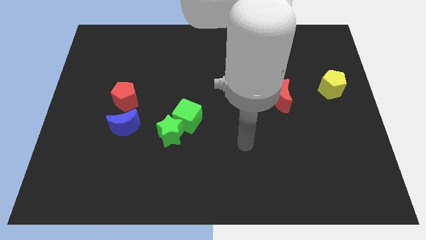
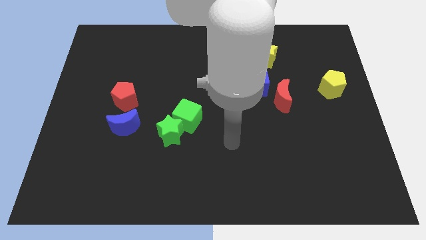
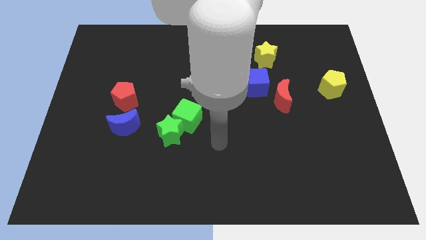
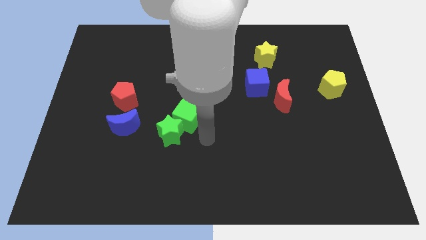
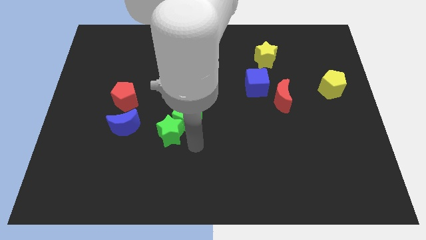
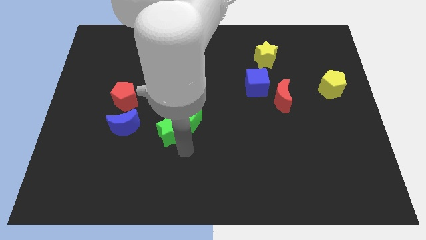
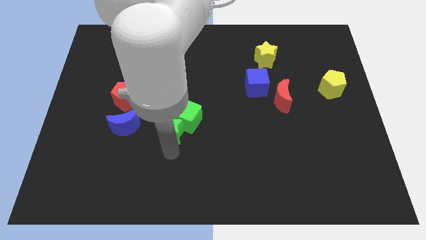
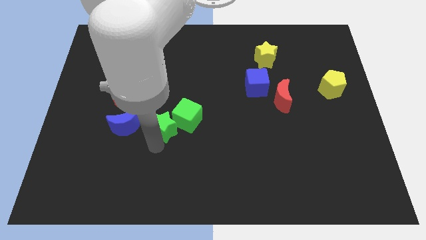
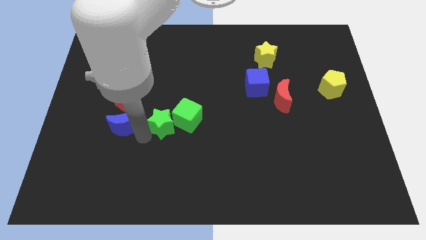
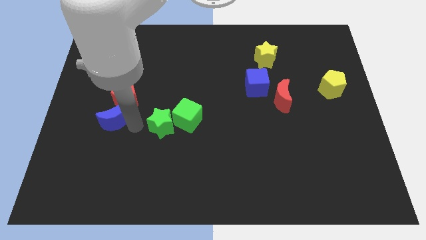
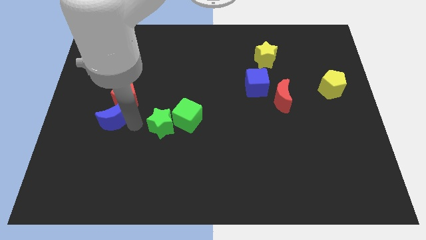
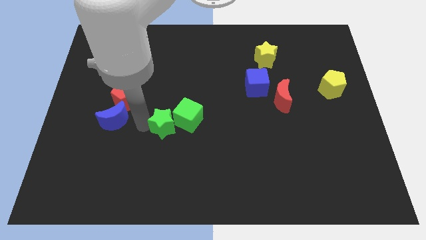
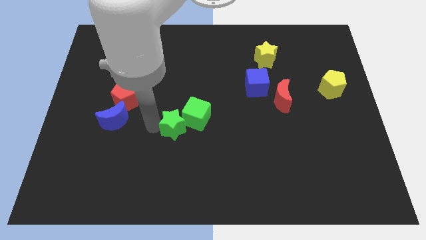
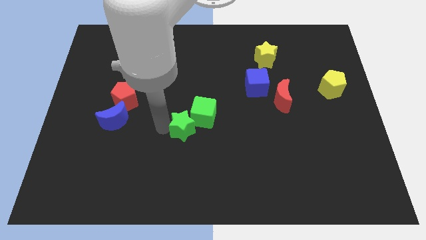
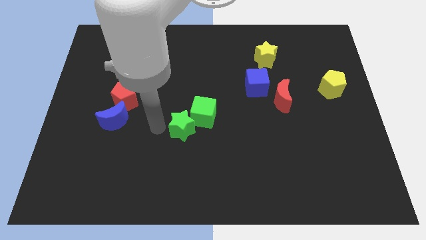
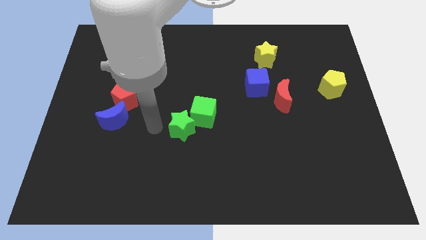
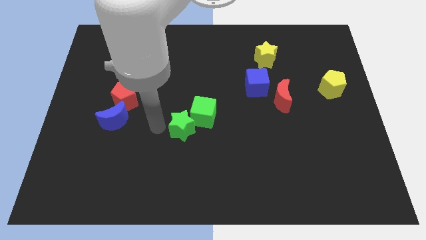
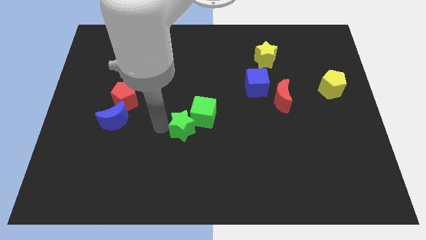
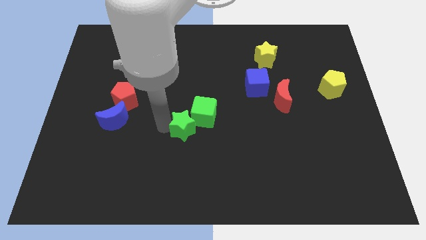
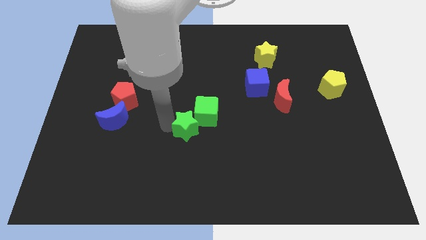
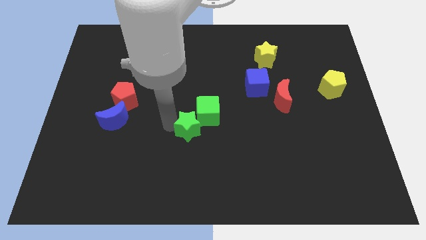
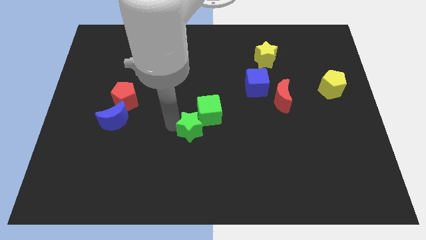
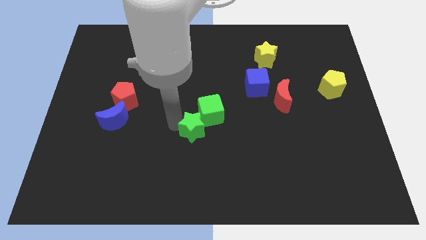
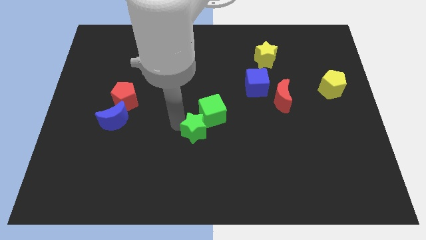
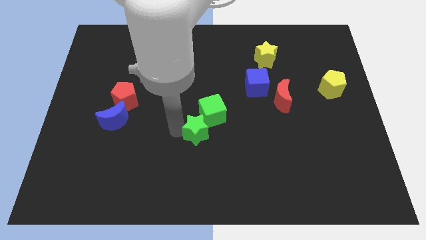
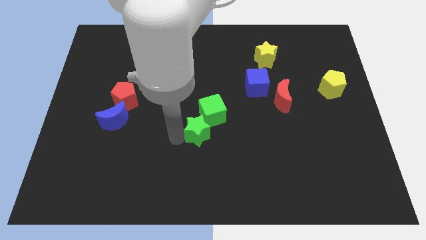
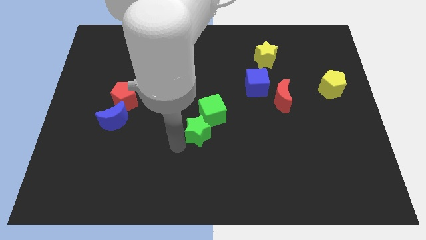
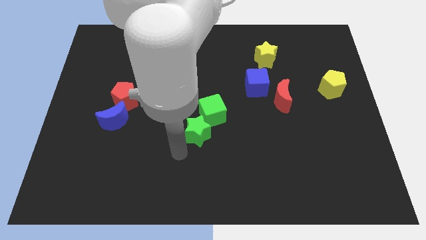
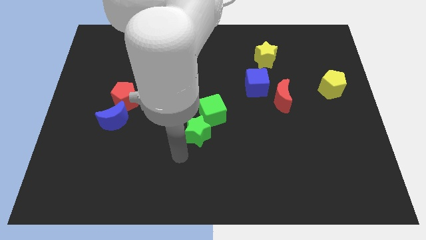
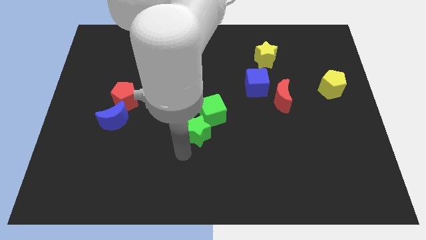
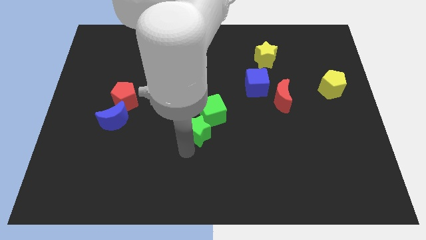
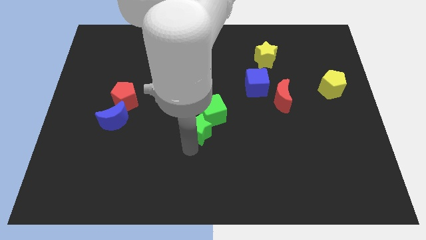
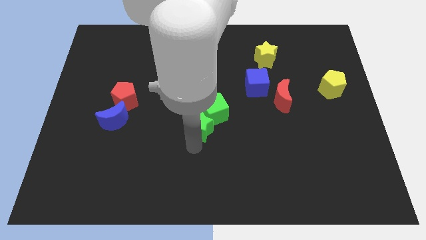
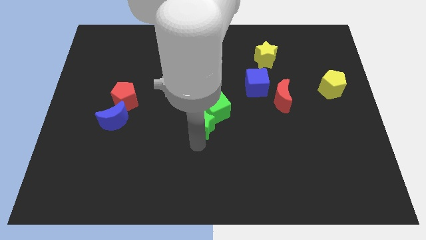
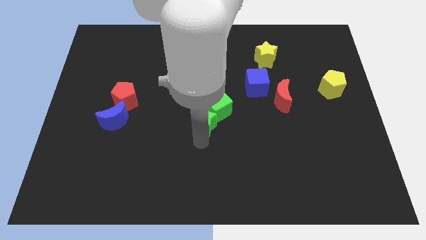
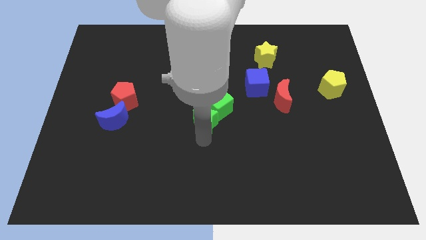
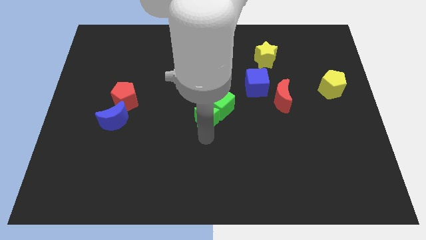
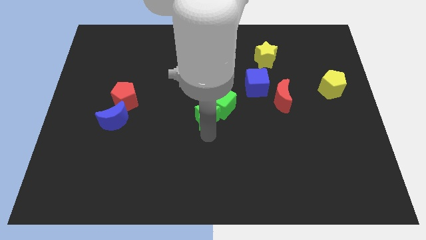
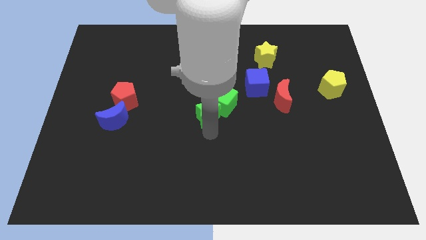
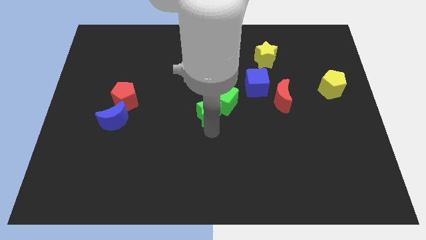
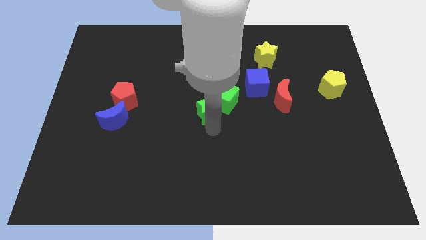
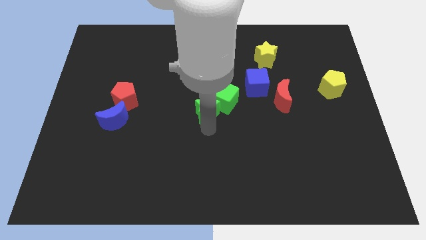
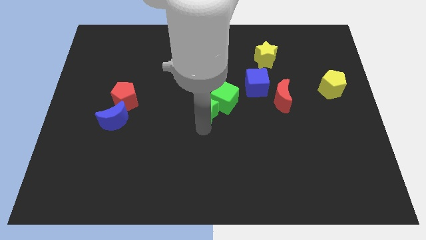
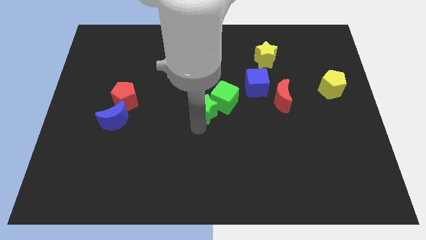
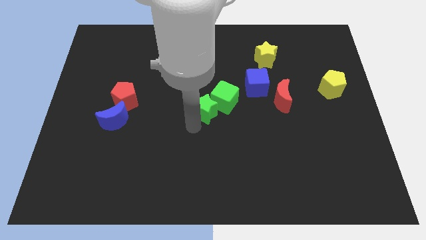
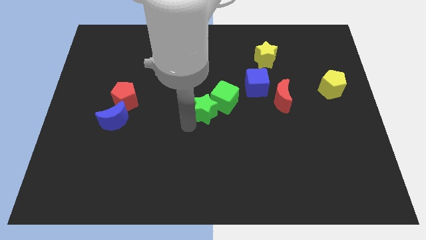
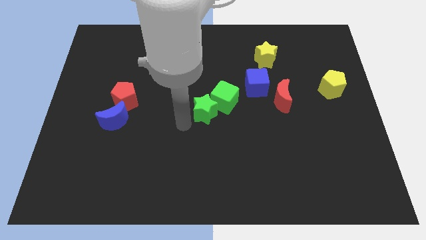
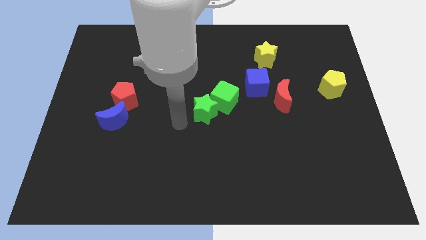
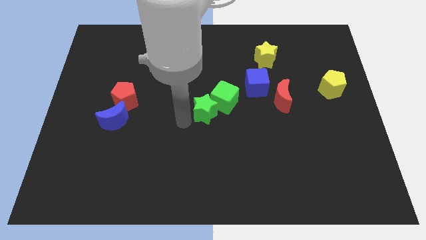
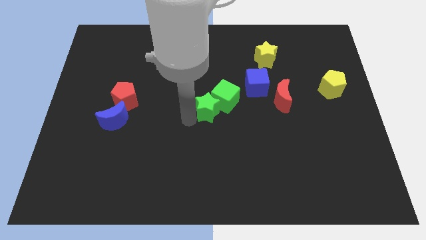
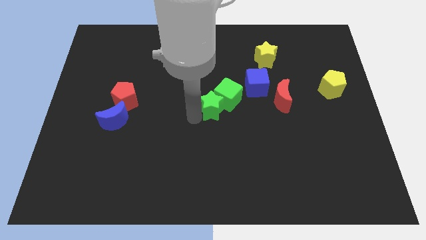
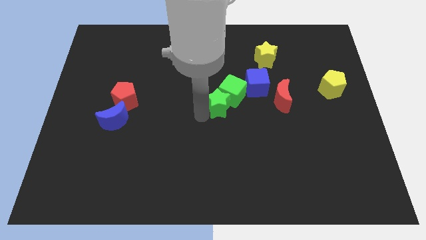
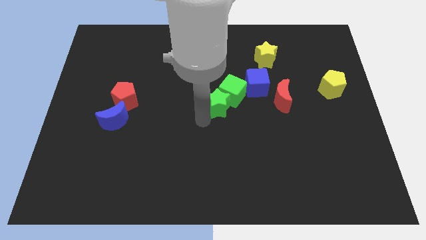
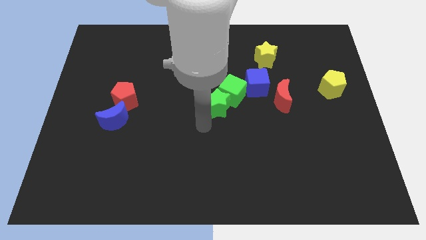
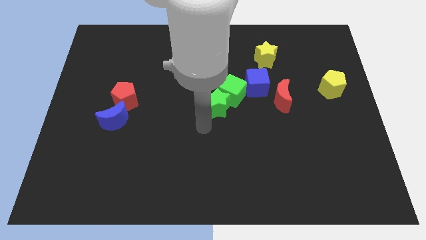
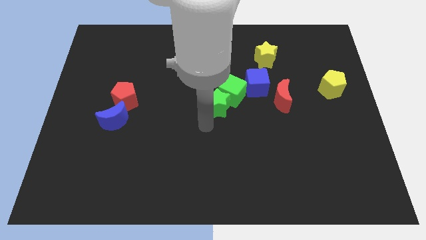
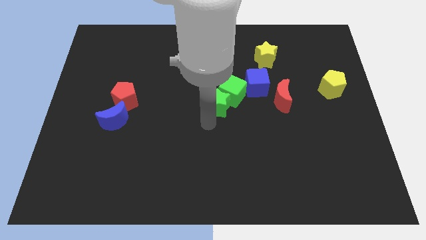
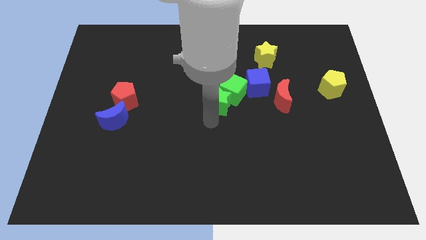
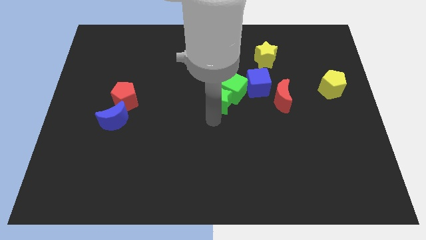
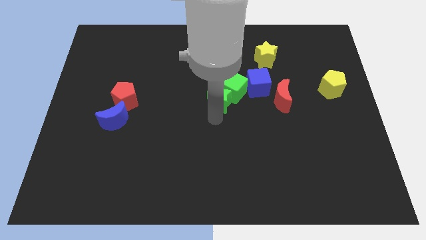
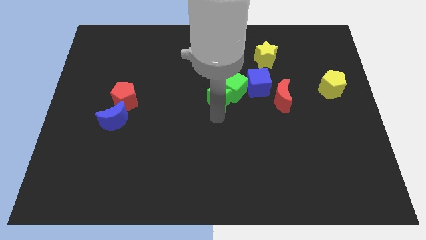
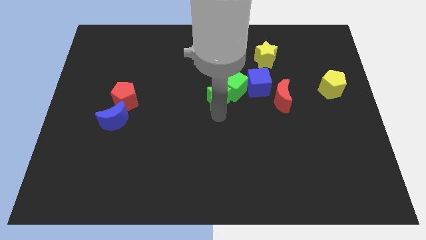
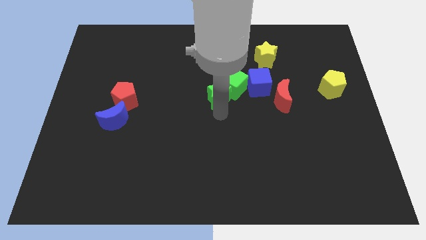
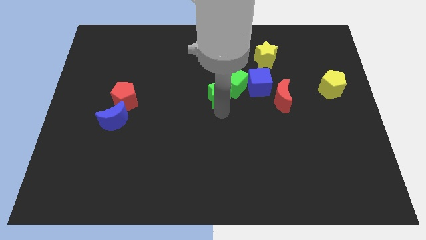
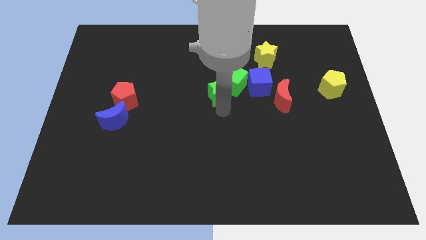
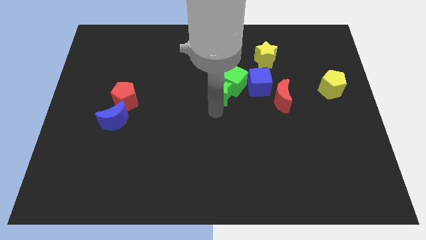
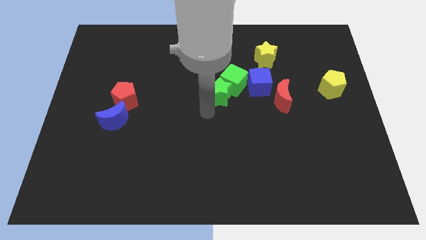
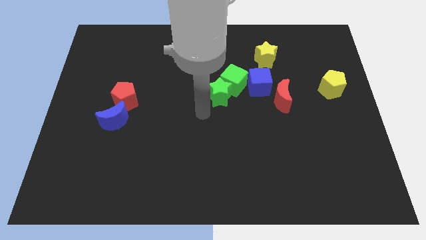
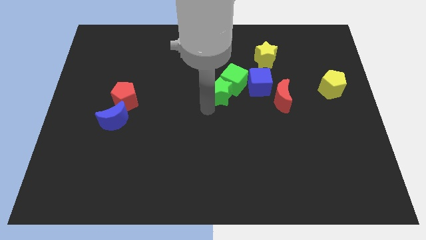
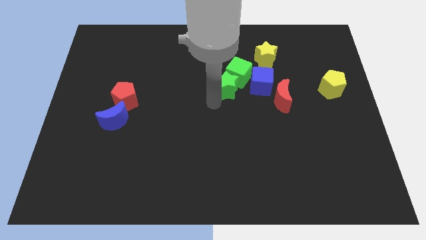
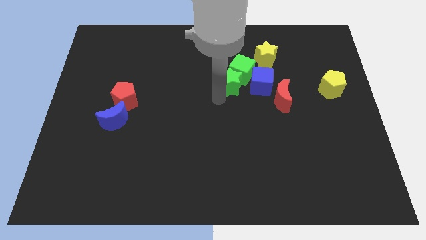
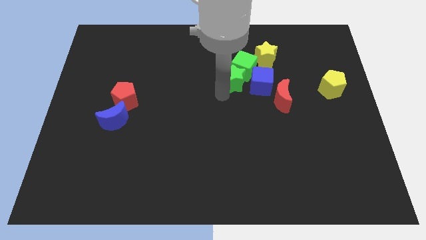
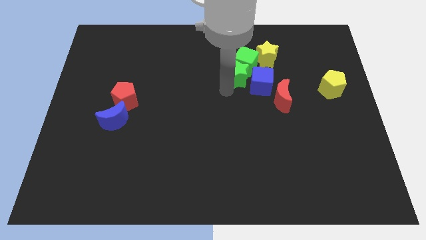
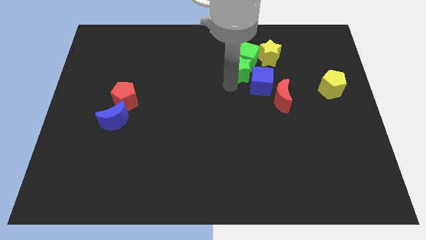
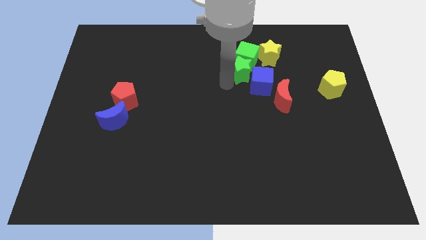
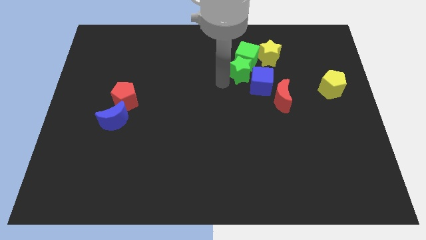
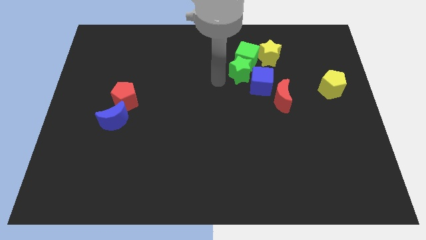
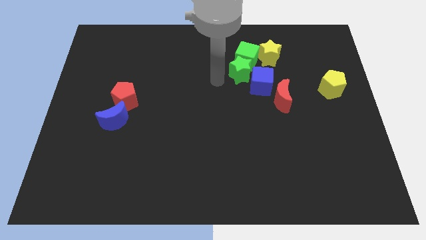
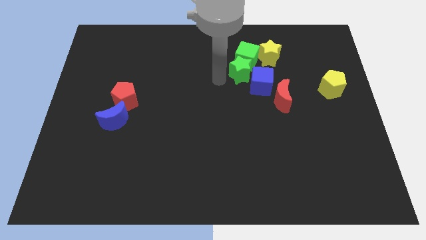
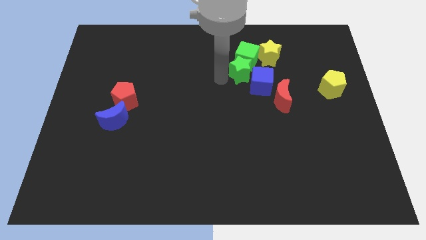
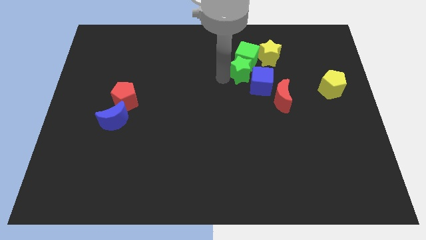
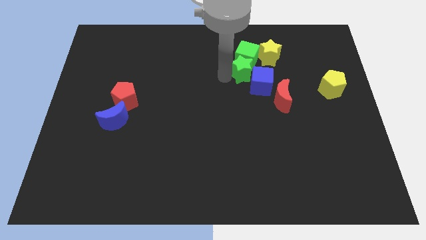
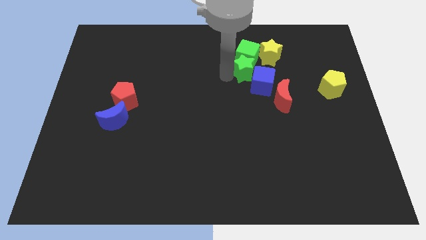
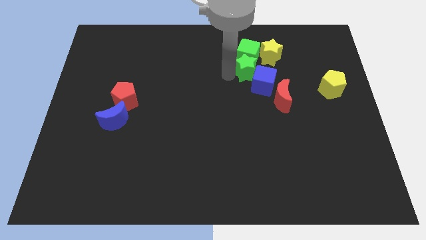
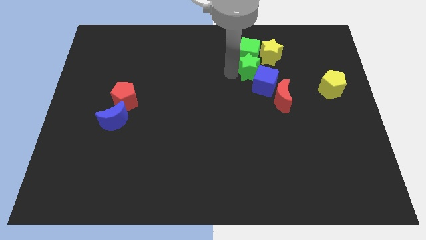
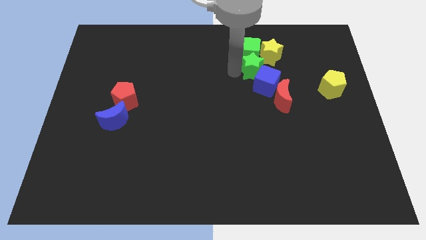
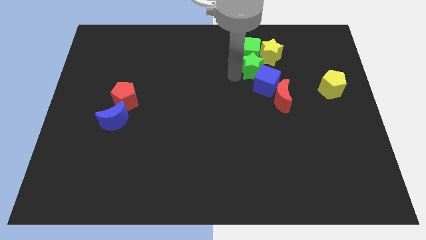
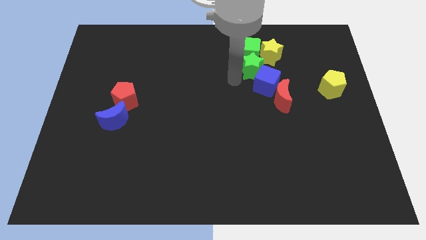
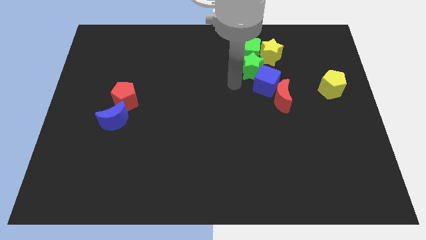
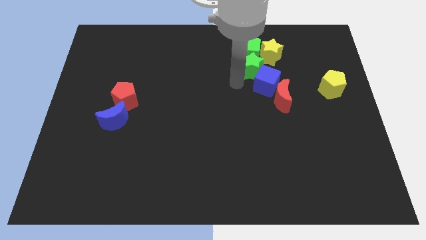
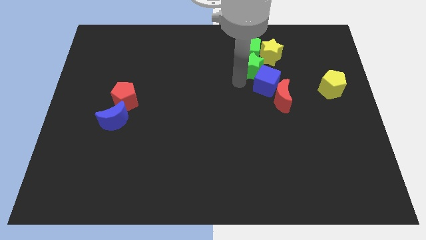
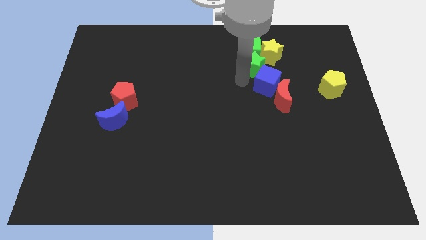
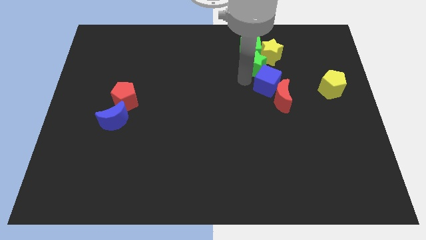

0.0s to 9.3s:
move the green star close to the yellow star
